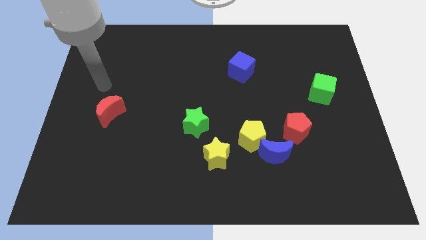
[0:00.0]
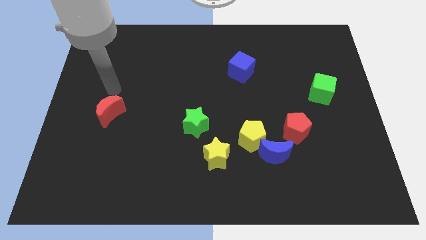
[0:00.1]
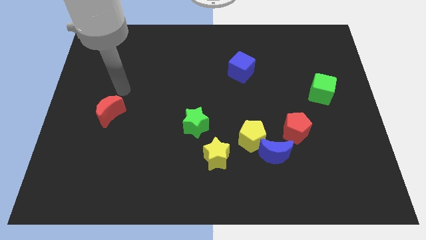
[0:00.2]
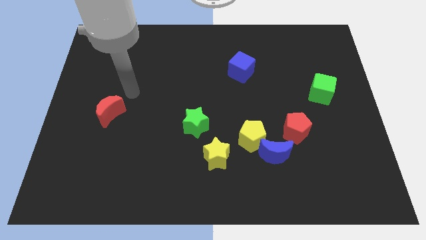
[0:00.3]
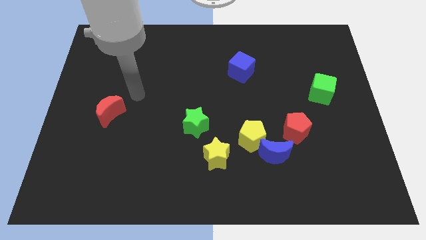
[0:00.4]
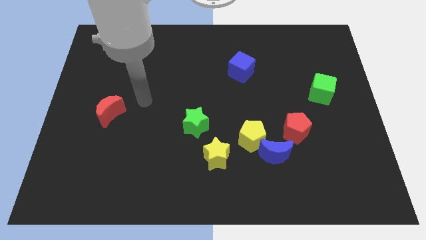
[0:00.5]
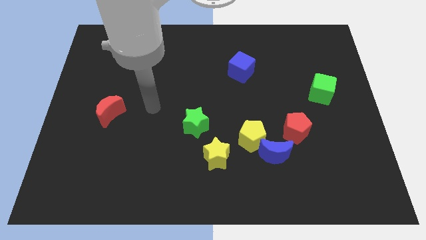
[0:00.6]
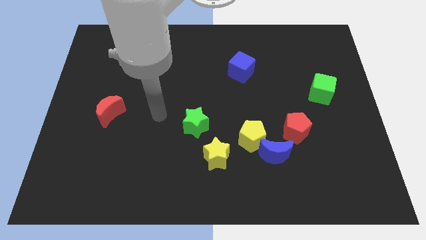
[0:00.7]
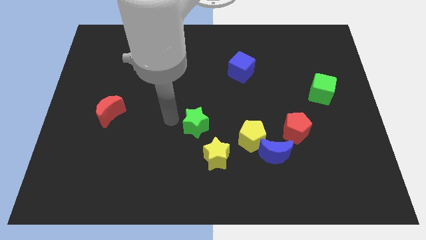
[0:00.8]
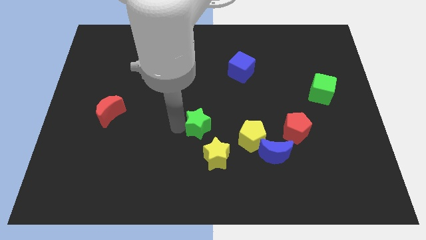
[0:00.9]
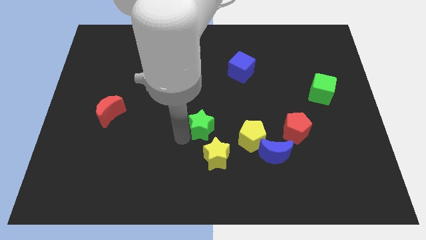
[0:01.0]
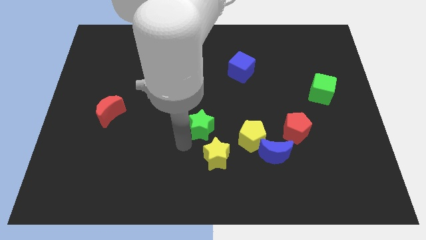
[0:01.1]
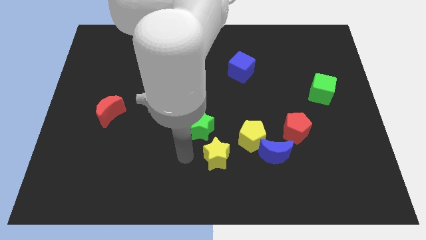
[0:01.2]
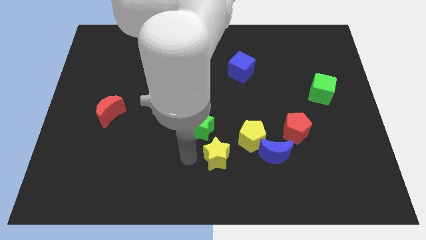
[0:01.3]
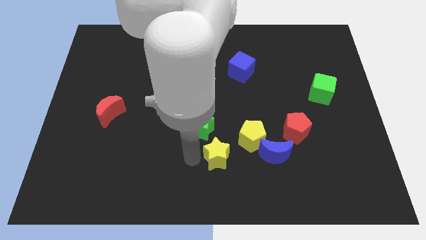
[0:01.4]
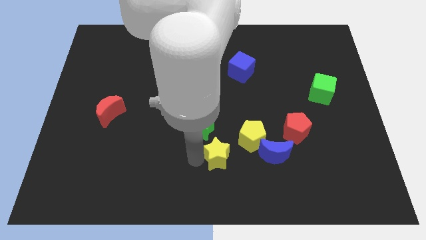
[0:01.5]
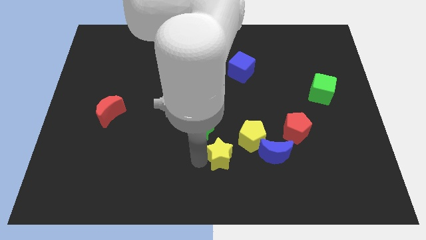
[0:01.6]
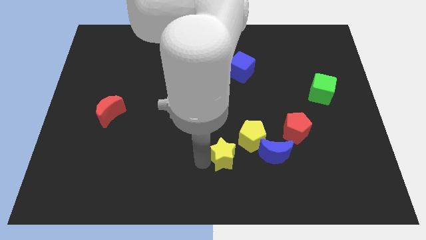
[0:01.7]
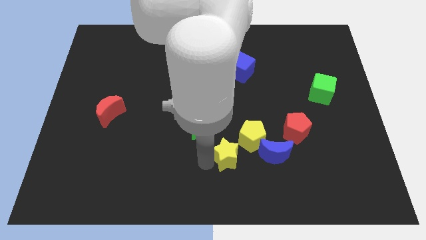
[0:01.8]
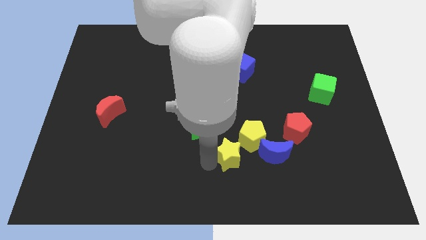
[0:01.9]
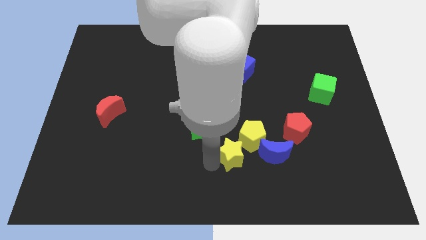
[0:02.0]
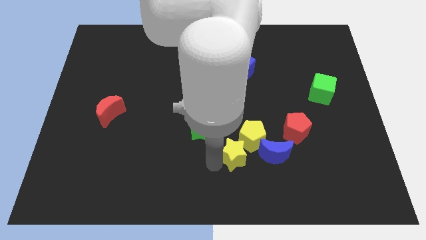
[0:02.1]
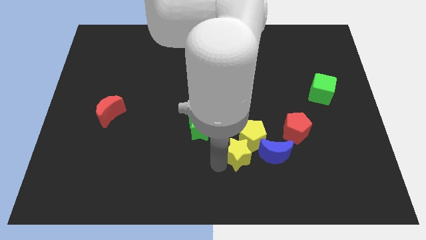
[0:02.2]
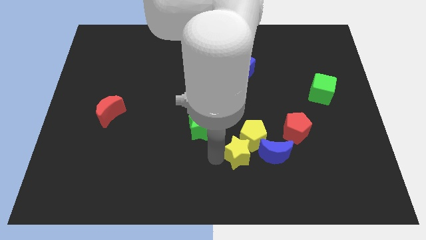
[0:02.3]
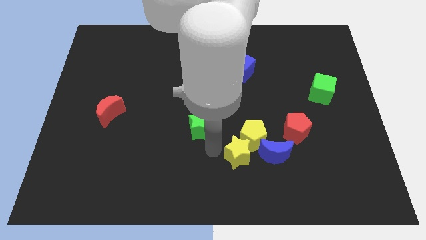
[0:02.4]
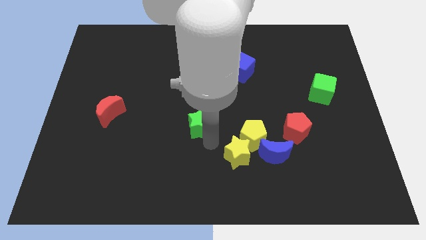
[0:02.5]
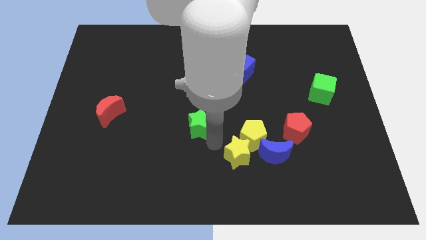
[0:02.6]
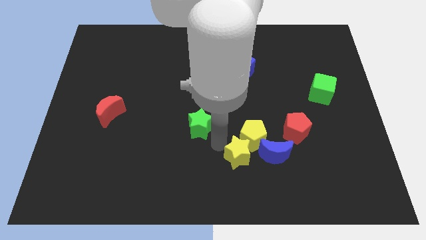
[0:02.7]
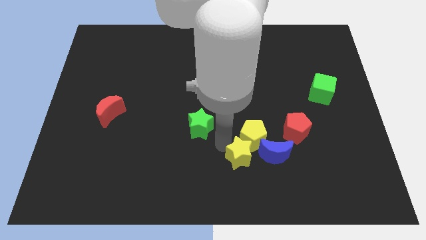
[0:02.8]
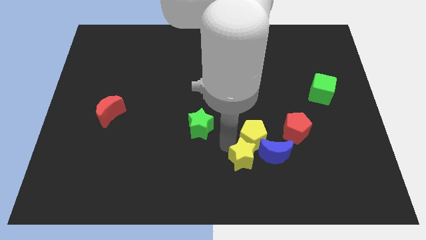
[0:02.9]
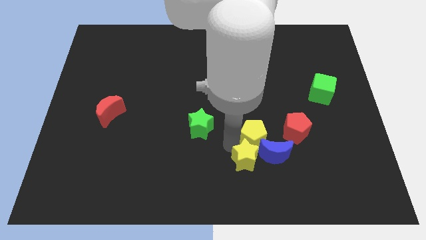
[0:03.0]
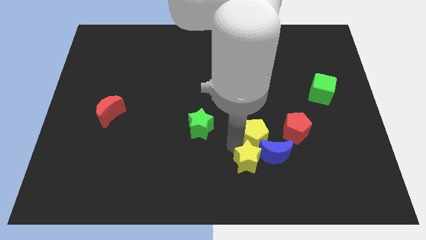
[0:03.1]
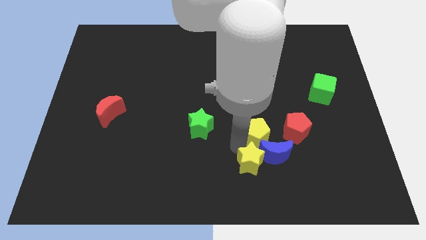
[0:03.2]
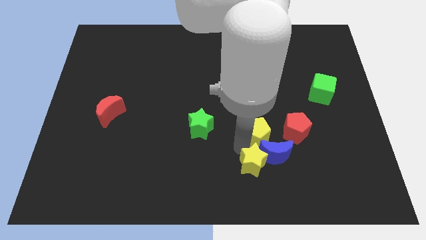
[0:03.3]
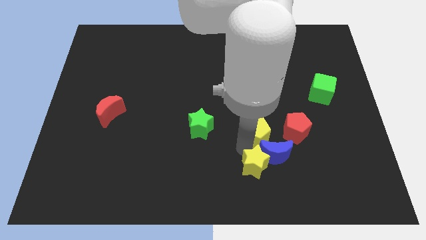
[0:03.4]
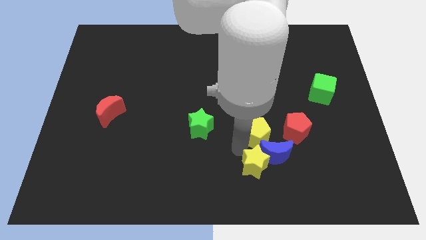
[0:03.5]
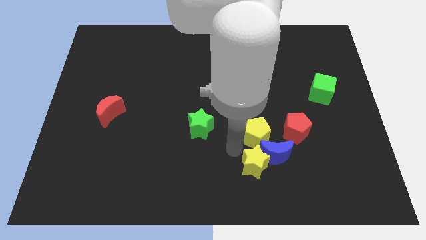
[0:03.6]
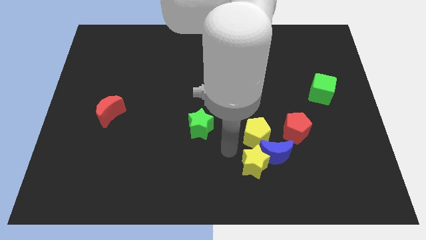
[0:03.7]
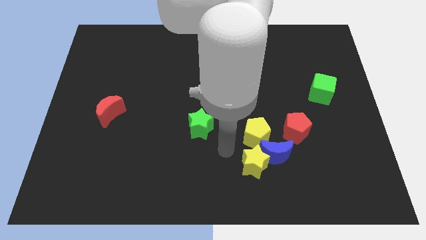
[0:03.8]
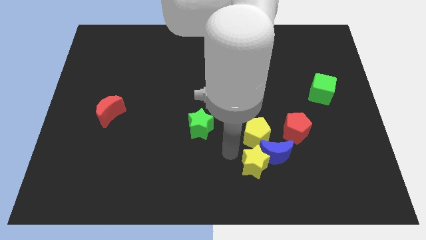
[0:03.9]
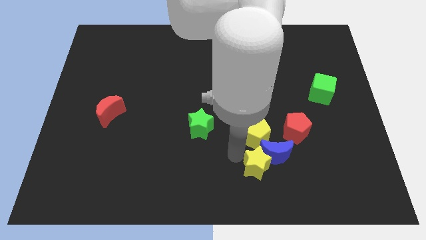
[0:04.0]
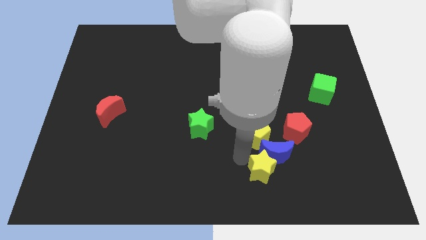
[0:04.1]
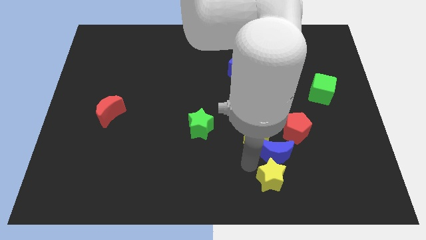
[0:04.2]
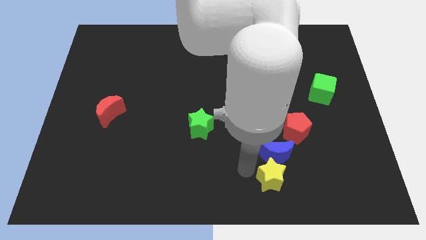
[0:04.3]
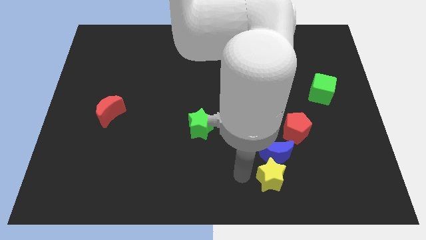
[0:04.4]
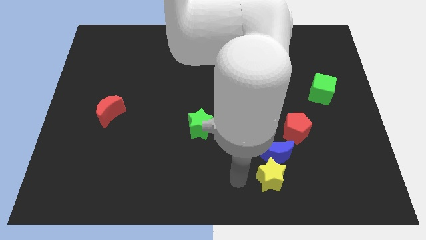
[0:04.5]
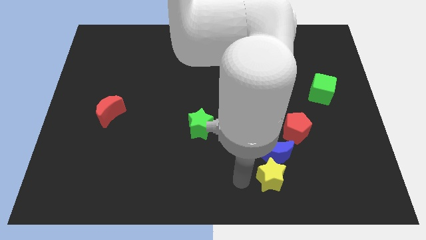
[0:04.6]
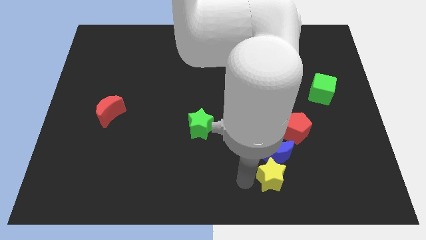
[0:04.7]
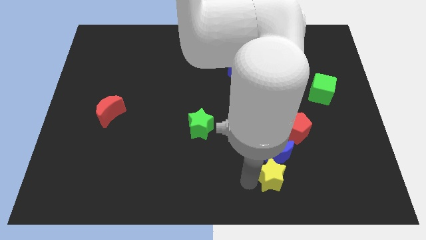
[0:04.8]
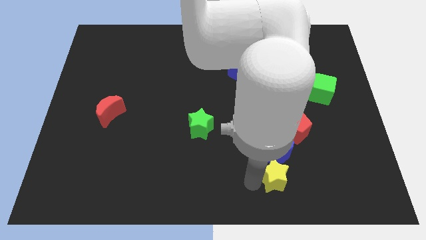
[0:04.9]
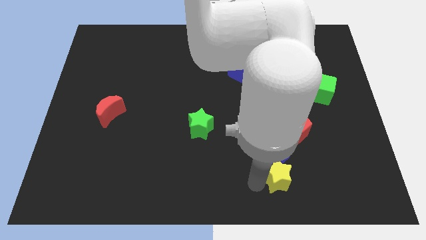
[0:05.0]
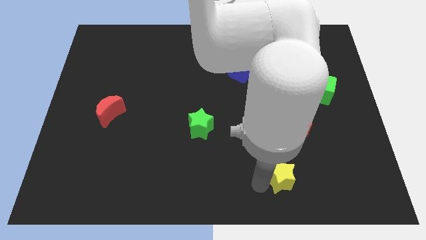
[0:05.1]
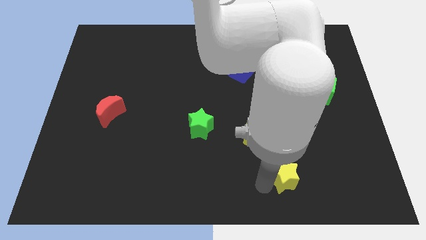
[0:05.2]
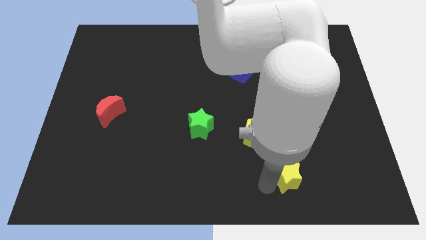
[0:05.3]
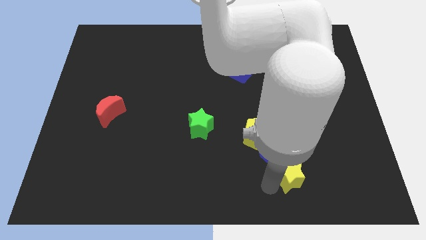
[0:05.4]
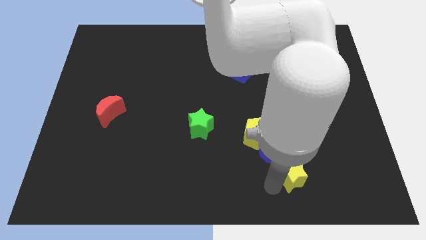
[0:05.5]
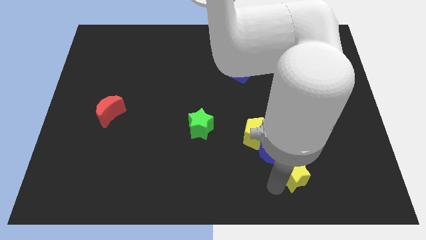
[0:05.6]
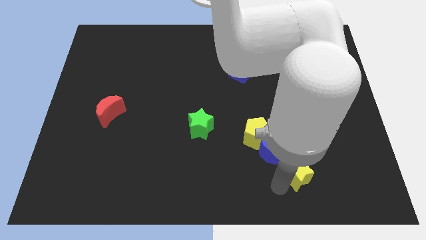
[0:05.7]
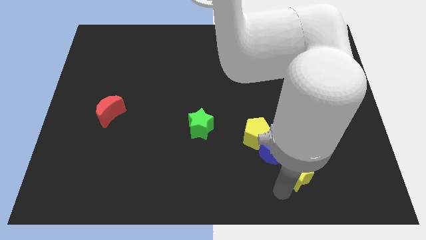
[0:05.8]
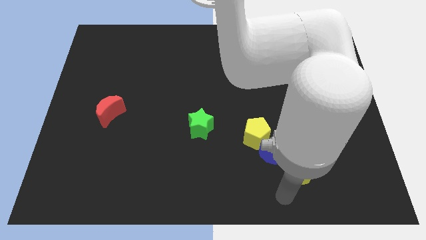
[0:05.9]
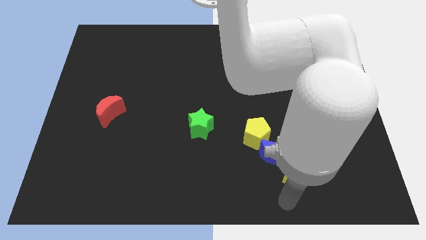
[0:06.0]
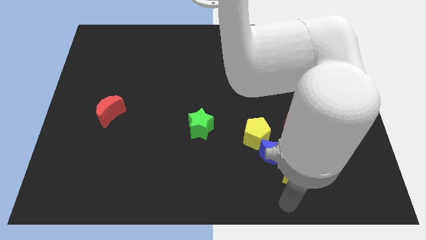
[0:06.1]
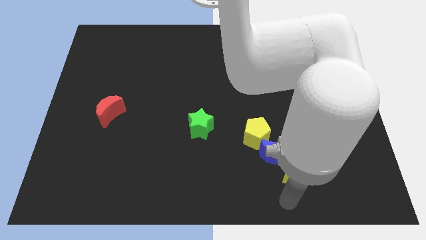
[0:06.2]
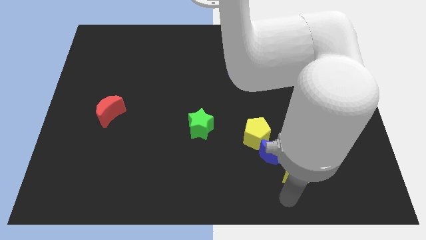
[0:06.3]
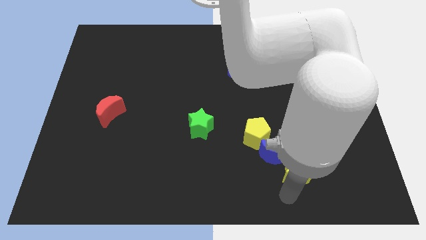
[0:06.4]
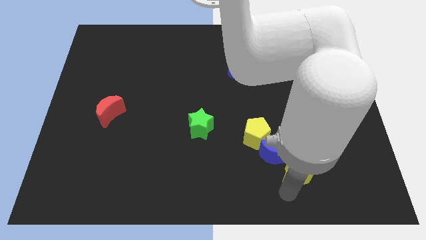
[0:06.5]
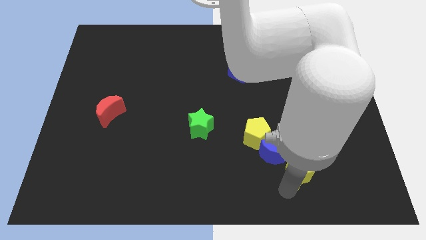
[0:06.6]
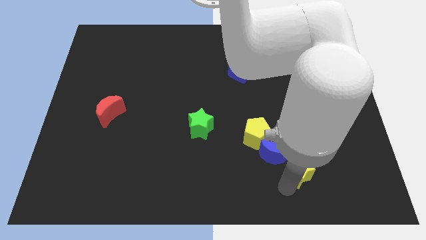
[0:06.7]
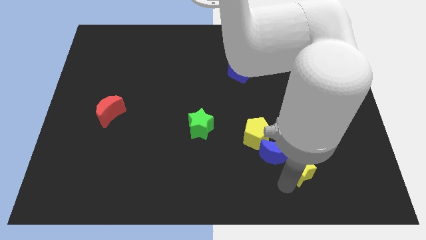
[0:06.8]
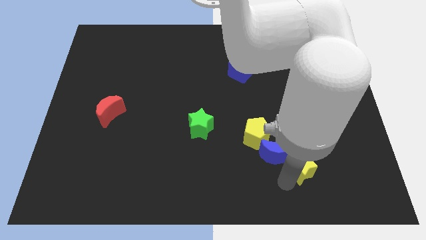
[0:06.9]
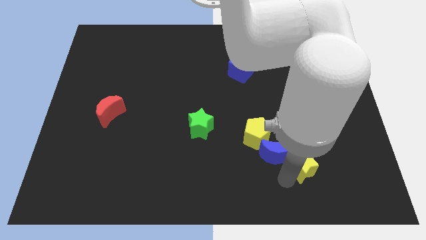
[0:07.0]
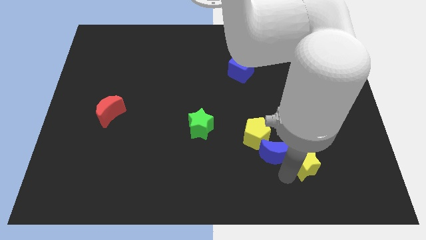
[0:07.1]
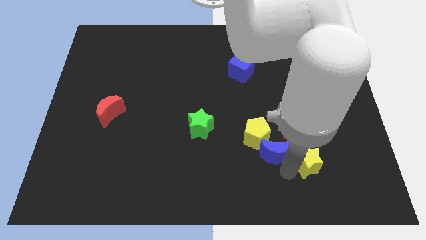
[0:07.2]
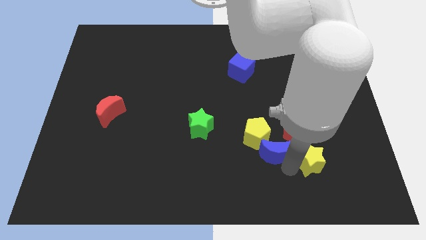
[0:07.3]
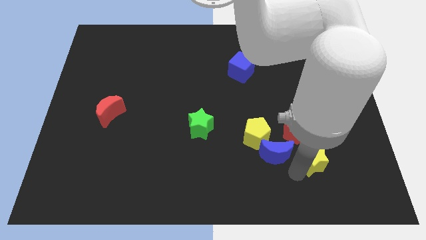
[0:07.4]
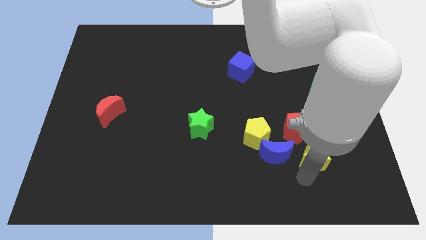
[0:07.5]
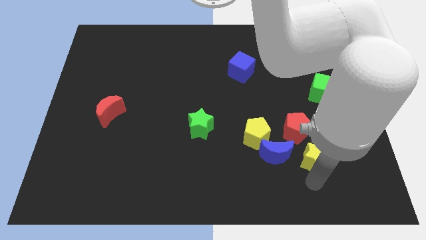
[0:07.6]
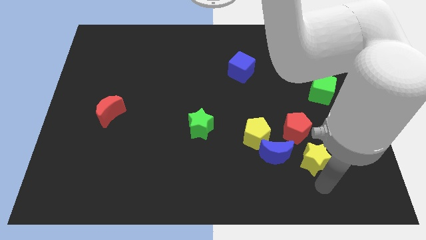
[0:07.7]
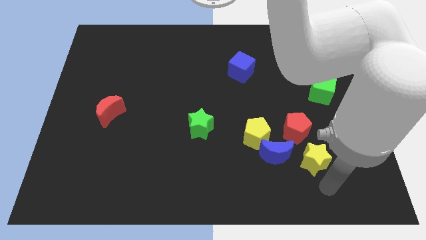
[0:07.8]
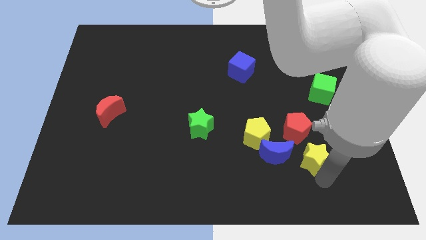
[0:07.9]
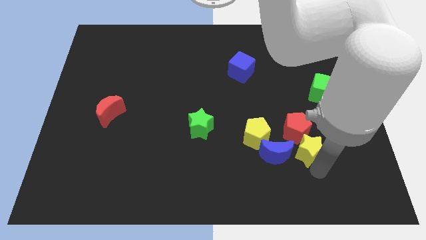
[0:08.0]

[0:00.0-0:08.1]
push the yellow star to the red pentagon
